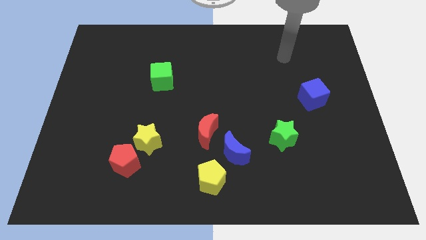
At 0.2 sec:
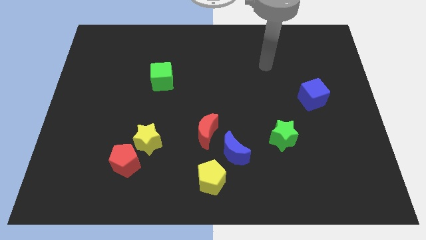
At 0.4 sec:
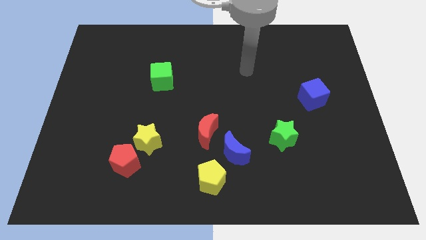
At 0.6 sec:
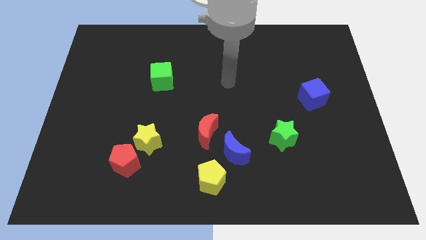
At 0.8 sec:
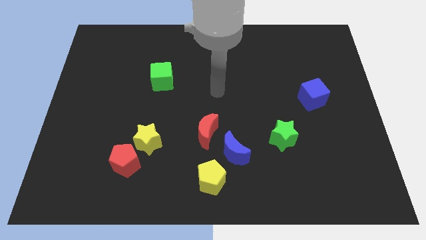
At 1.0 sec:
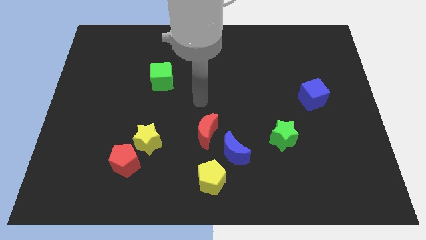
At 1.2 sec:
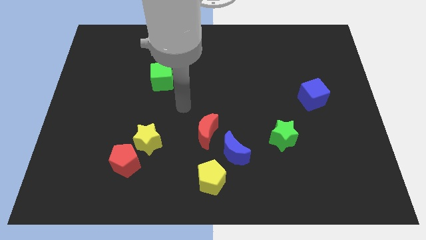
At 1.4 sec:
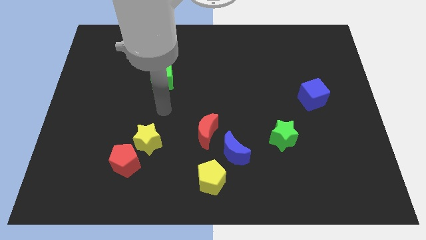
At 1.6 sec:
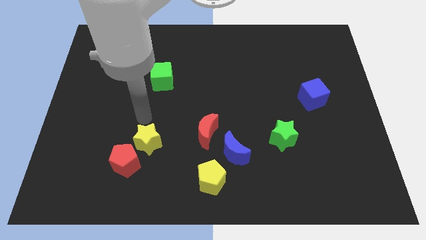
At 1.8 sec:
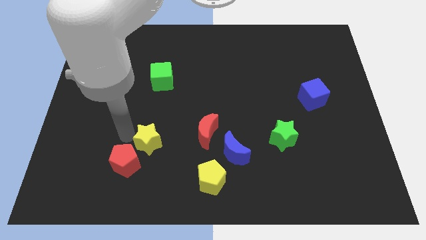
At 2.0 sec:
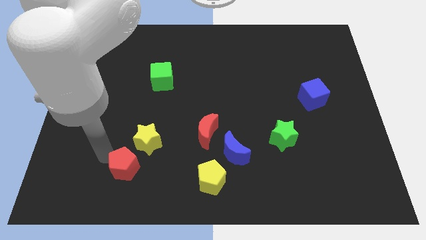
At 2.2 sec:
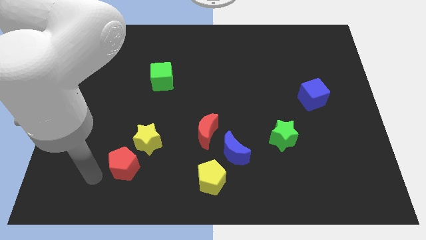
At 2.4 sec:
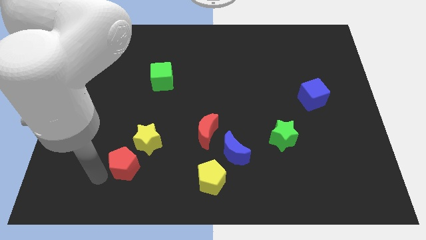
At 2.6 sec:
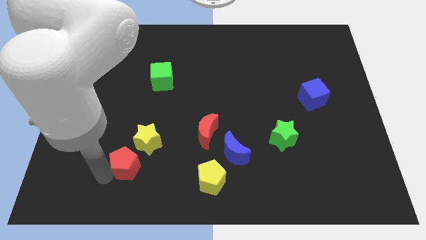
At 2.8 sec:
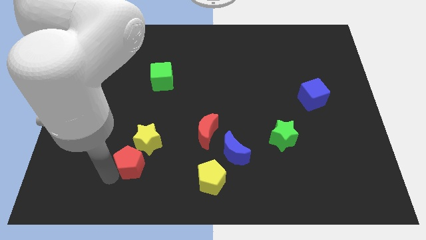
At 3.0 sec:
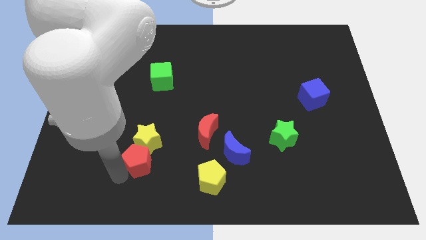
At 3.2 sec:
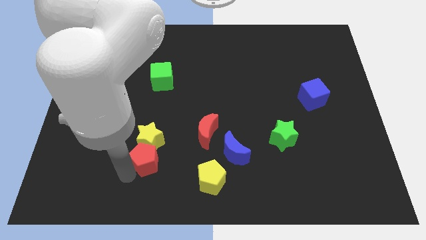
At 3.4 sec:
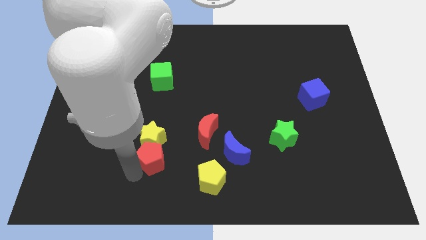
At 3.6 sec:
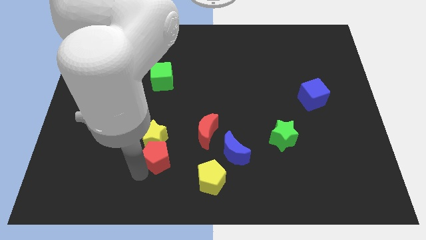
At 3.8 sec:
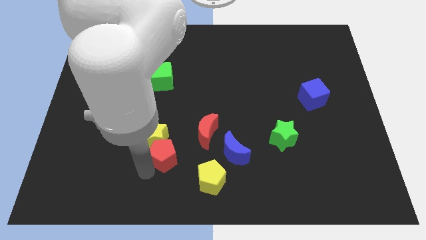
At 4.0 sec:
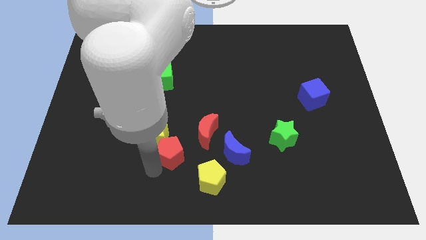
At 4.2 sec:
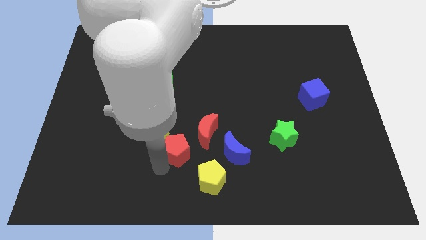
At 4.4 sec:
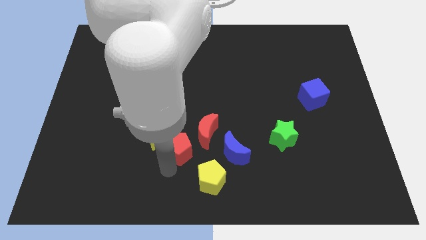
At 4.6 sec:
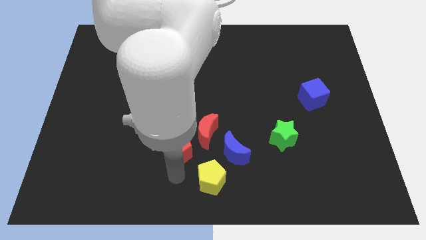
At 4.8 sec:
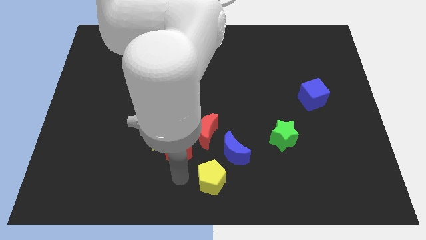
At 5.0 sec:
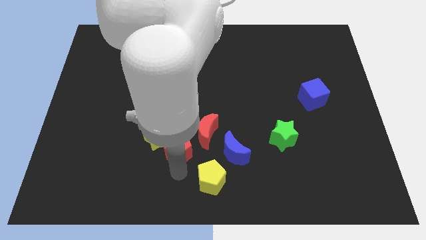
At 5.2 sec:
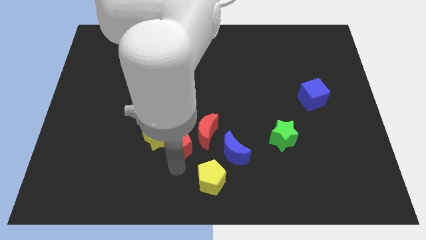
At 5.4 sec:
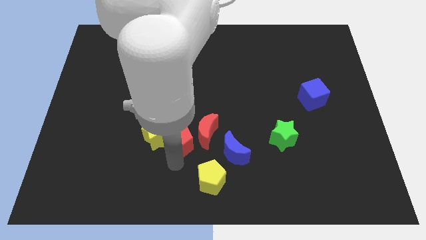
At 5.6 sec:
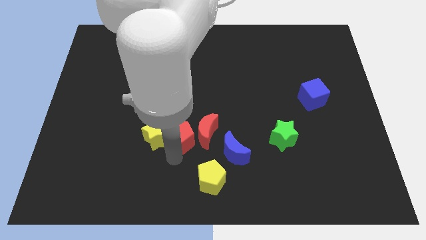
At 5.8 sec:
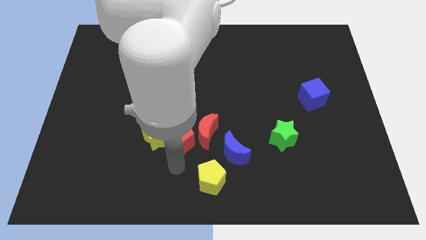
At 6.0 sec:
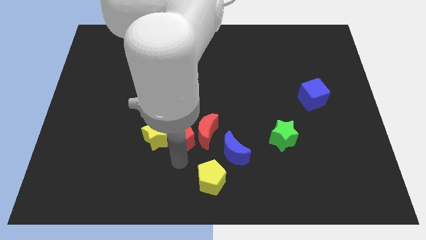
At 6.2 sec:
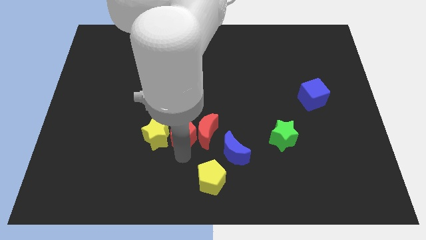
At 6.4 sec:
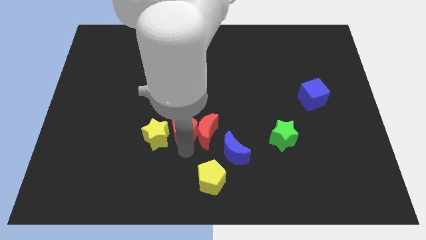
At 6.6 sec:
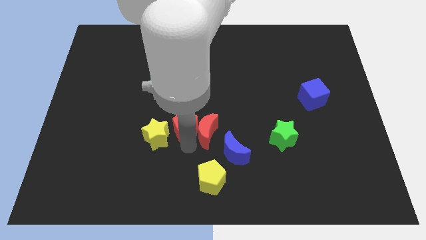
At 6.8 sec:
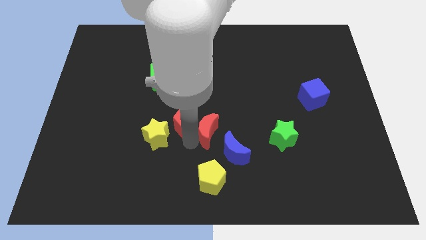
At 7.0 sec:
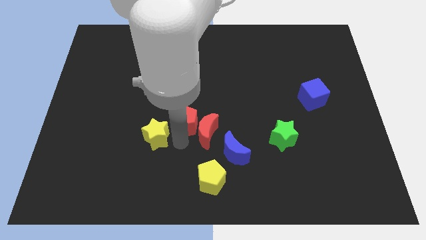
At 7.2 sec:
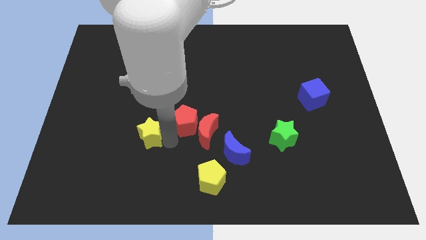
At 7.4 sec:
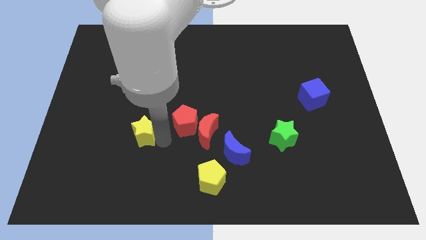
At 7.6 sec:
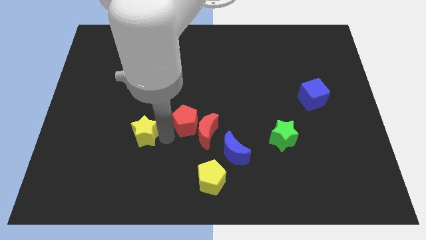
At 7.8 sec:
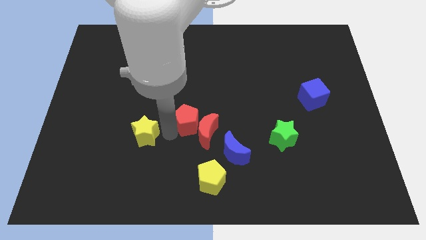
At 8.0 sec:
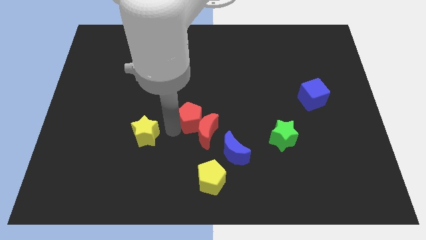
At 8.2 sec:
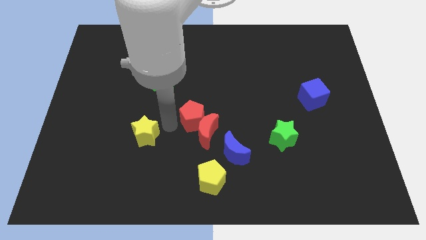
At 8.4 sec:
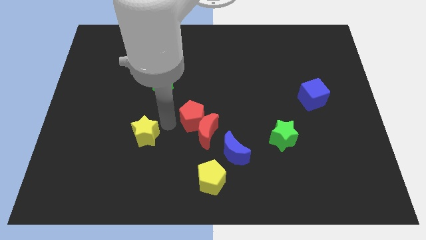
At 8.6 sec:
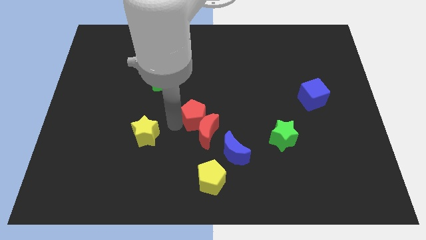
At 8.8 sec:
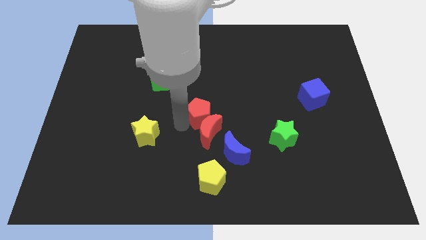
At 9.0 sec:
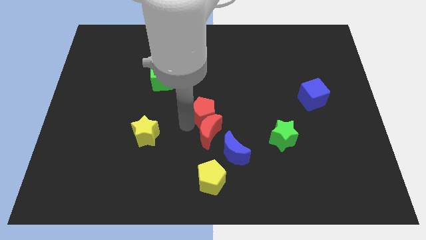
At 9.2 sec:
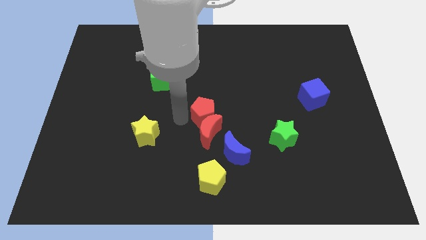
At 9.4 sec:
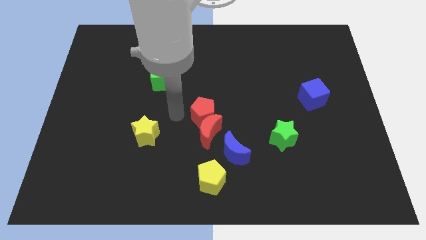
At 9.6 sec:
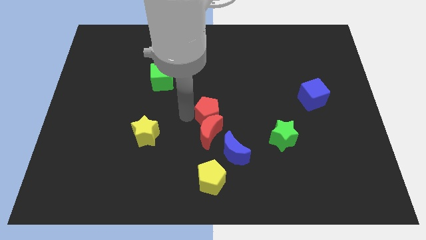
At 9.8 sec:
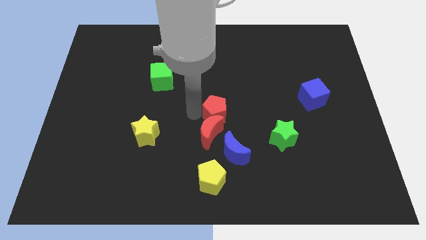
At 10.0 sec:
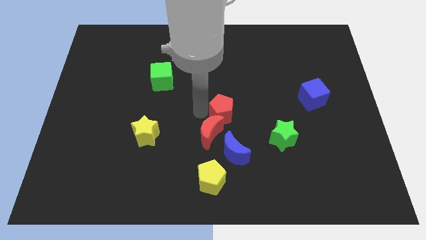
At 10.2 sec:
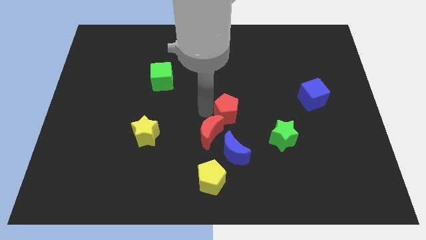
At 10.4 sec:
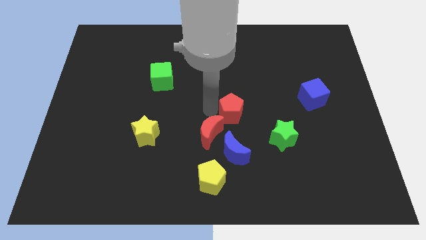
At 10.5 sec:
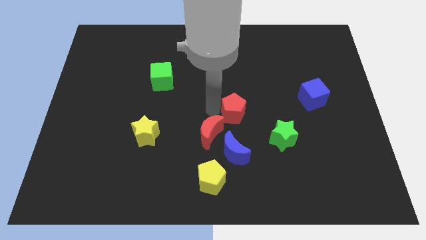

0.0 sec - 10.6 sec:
slide the red pentagon to the top left side of the green star

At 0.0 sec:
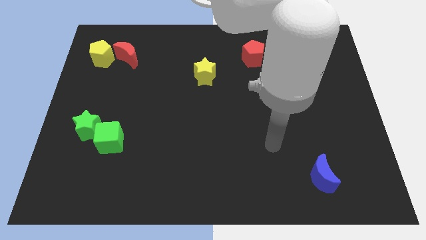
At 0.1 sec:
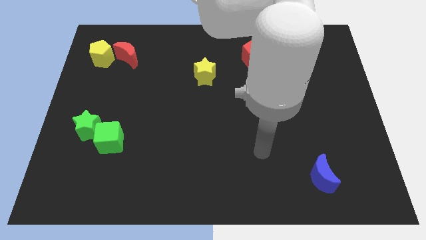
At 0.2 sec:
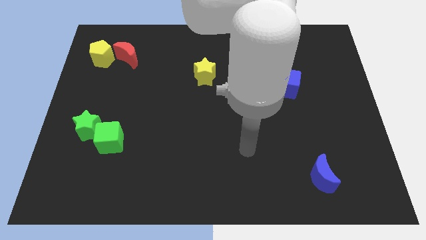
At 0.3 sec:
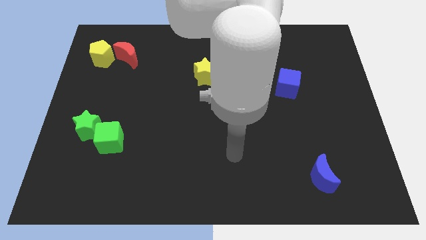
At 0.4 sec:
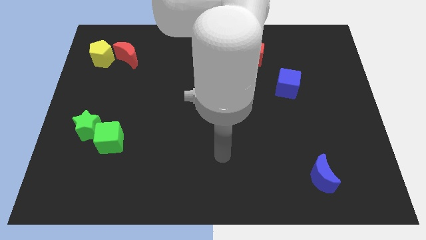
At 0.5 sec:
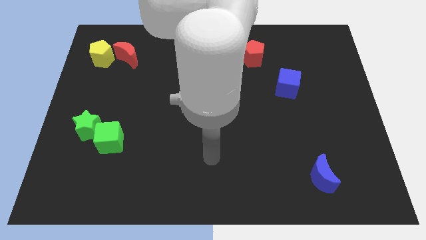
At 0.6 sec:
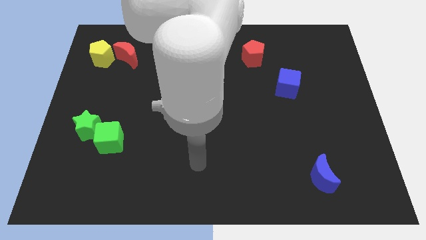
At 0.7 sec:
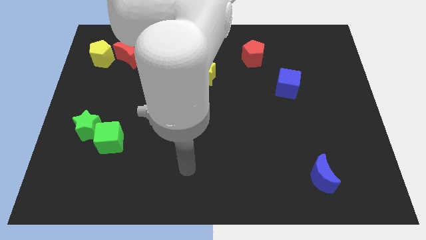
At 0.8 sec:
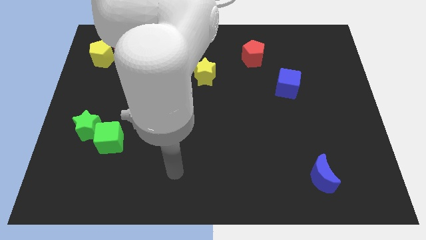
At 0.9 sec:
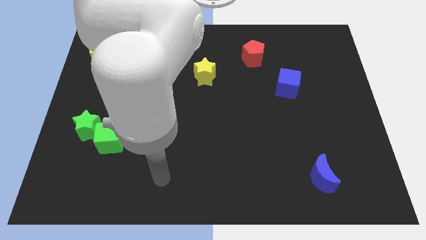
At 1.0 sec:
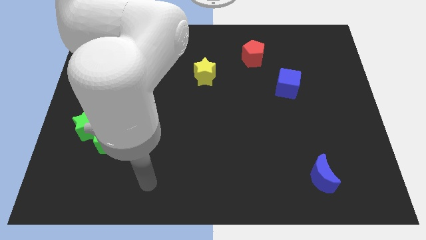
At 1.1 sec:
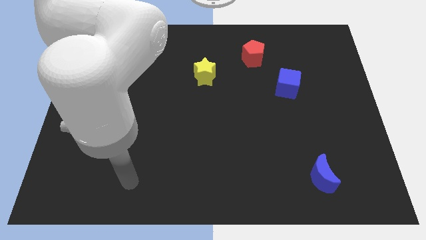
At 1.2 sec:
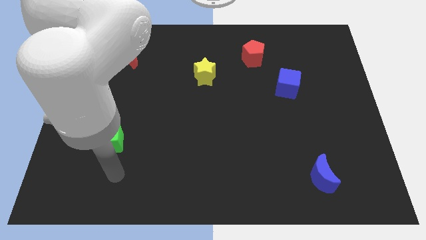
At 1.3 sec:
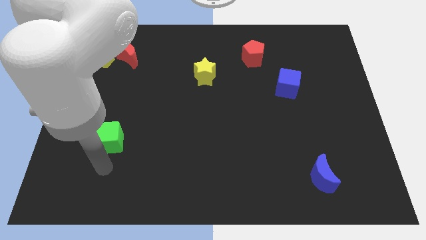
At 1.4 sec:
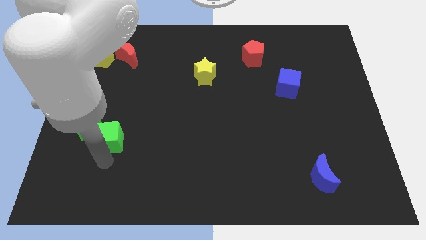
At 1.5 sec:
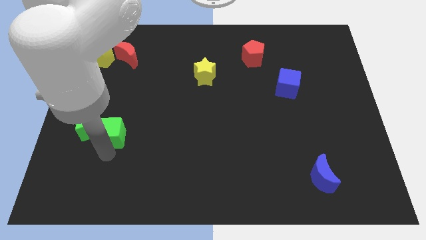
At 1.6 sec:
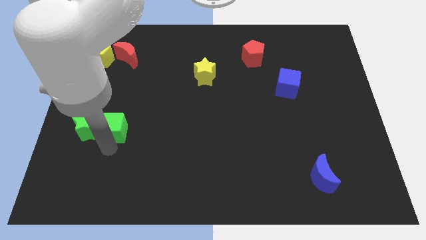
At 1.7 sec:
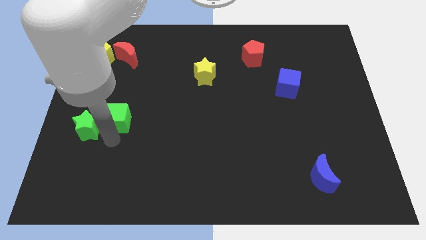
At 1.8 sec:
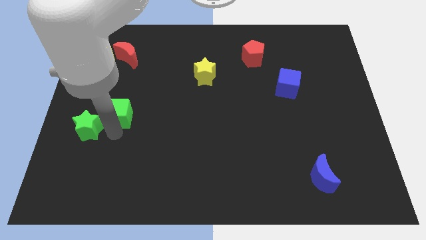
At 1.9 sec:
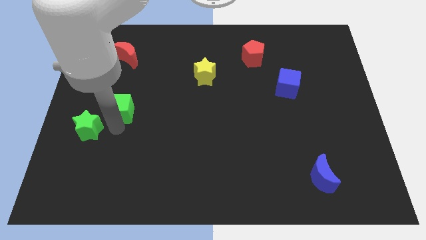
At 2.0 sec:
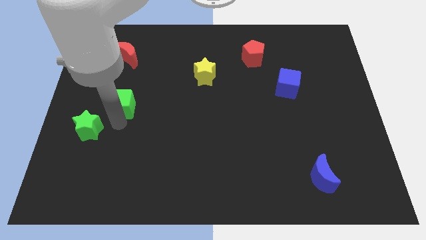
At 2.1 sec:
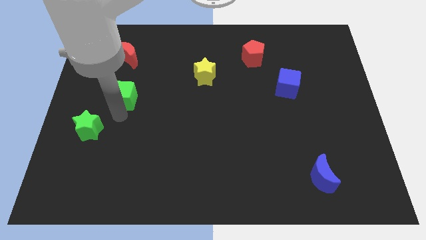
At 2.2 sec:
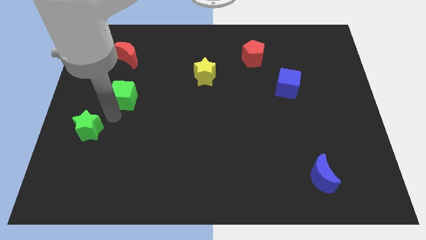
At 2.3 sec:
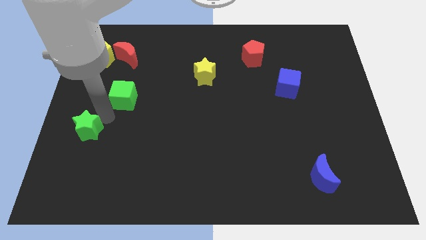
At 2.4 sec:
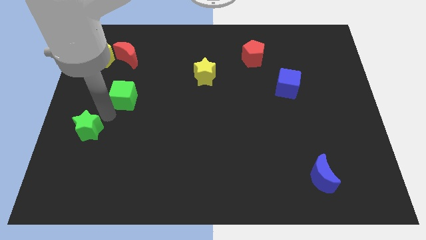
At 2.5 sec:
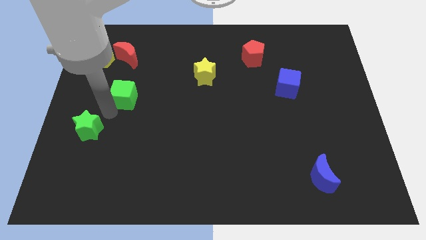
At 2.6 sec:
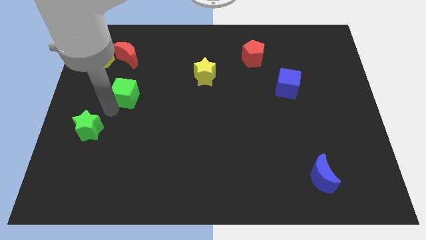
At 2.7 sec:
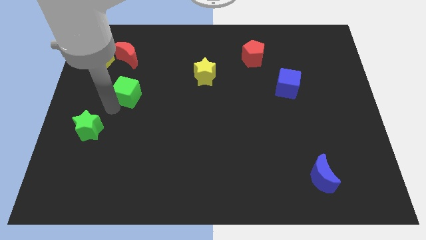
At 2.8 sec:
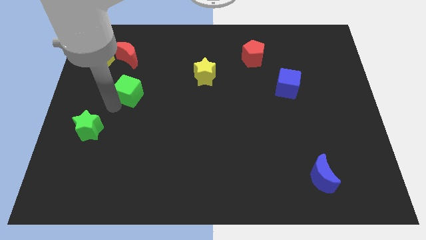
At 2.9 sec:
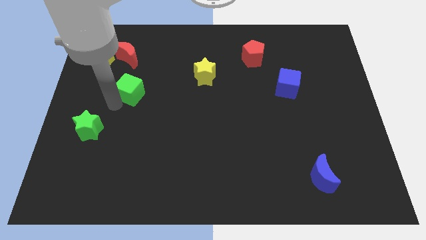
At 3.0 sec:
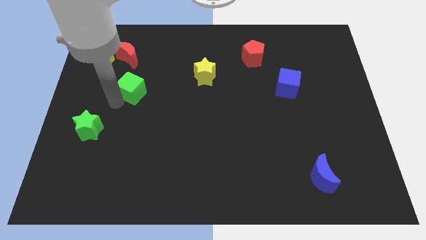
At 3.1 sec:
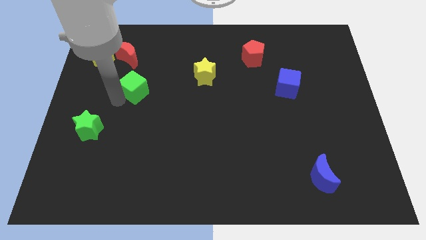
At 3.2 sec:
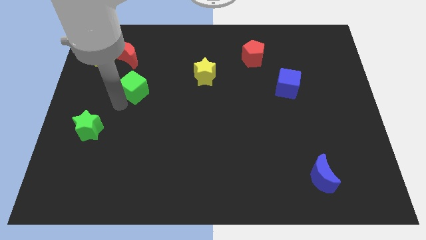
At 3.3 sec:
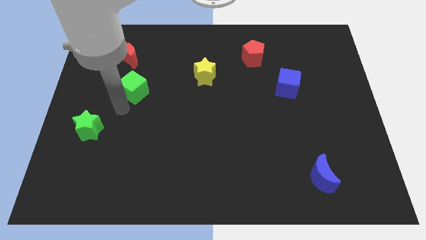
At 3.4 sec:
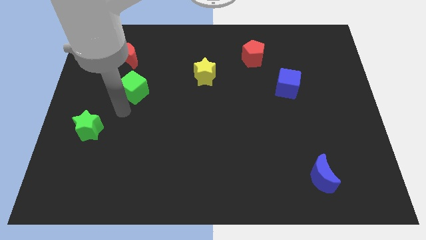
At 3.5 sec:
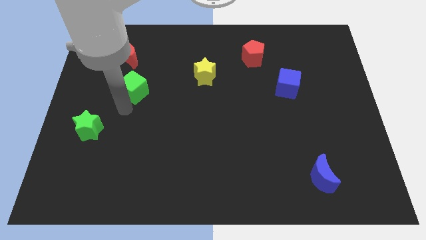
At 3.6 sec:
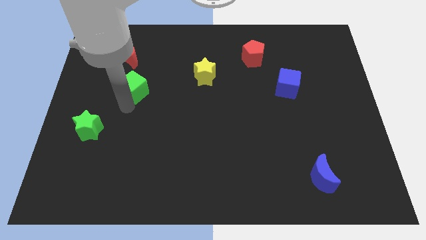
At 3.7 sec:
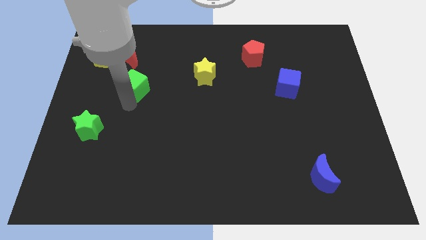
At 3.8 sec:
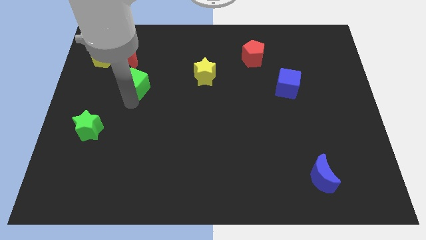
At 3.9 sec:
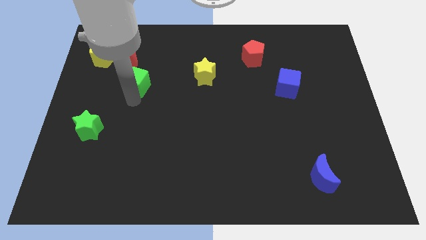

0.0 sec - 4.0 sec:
push the green cube to the bottom right of the red moon
